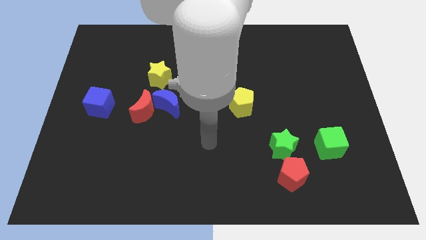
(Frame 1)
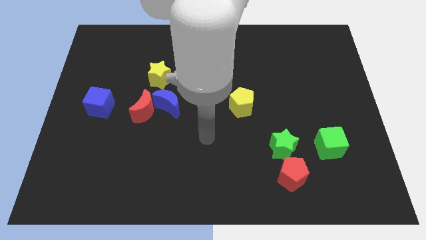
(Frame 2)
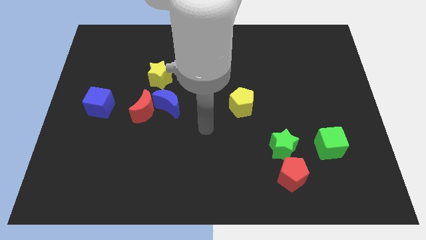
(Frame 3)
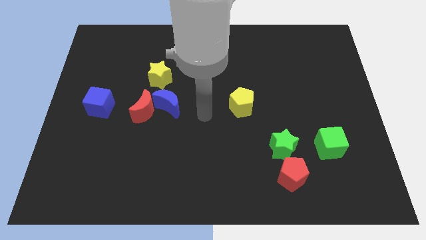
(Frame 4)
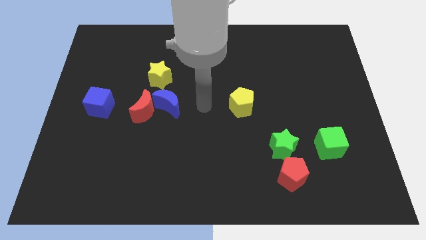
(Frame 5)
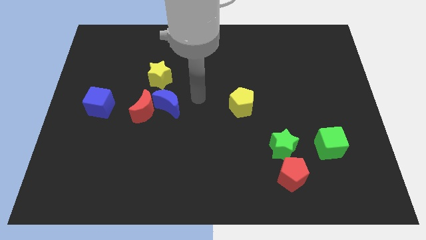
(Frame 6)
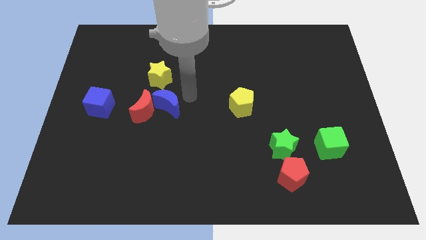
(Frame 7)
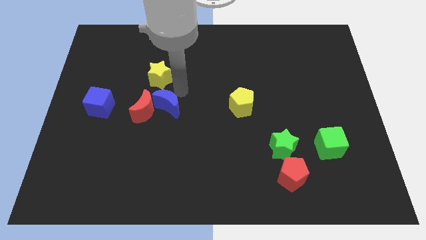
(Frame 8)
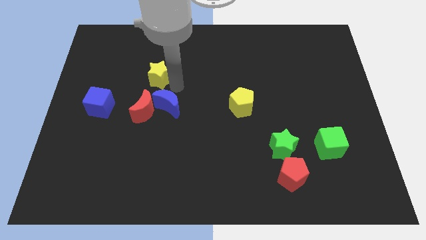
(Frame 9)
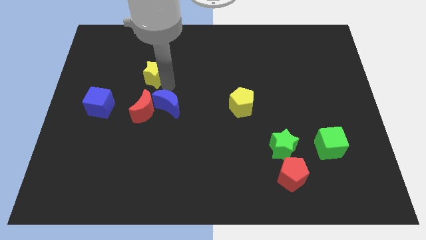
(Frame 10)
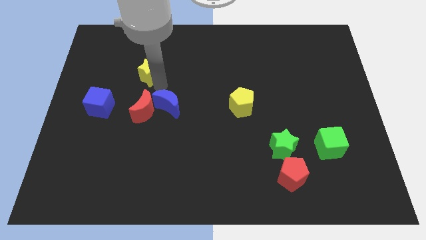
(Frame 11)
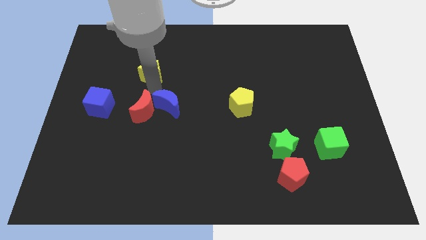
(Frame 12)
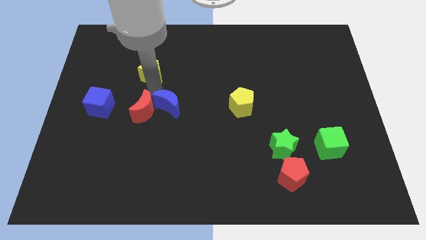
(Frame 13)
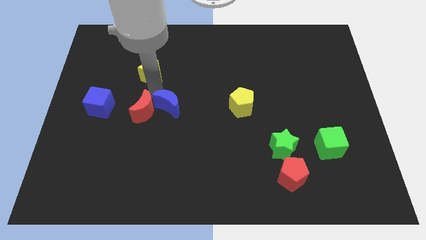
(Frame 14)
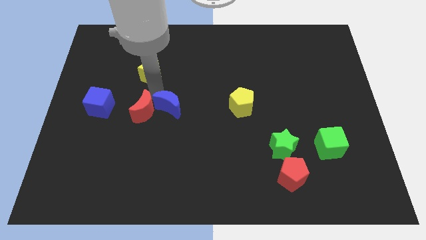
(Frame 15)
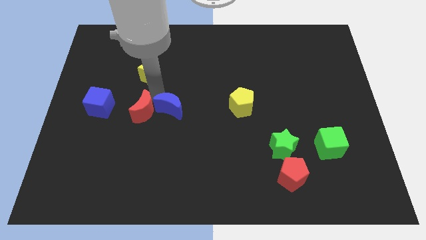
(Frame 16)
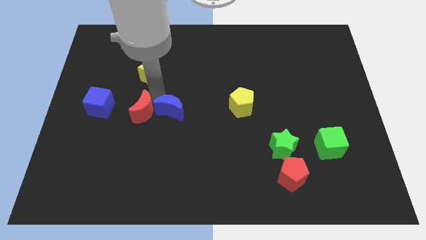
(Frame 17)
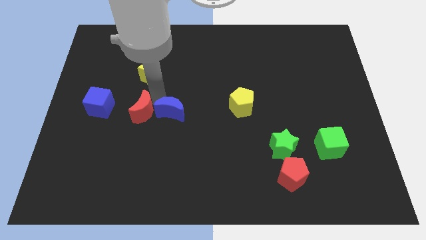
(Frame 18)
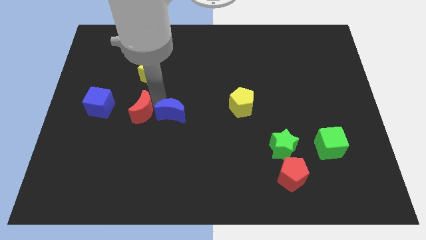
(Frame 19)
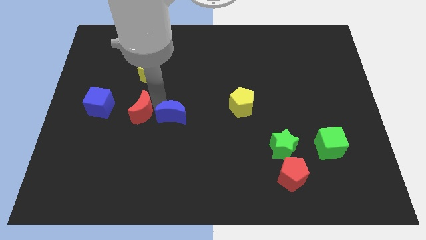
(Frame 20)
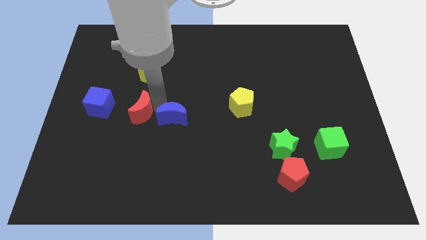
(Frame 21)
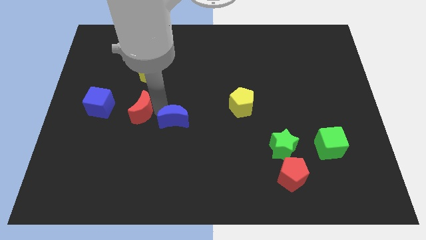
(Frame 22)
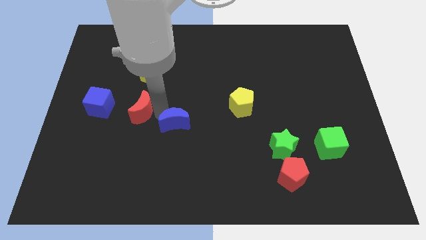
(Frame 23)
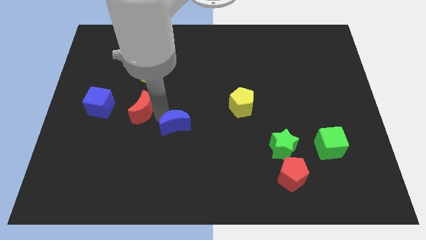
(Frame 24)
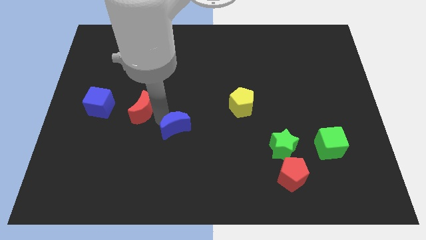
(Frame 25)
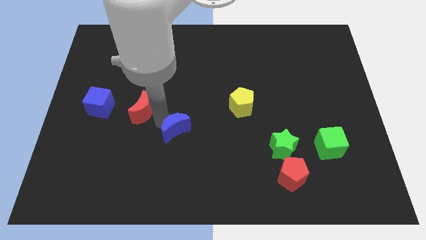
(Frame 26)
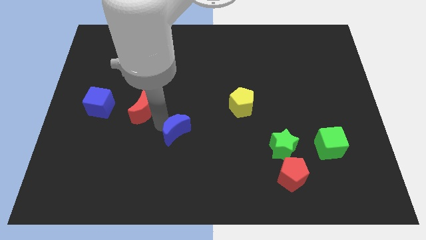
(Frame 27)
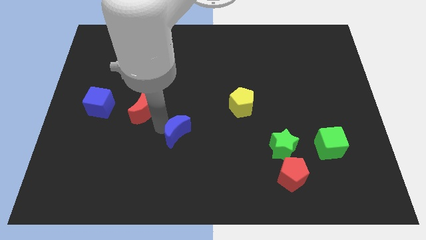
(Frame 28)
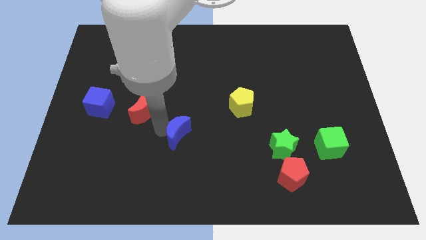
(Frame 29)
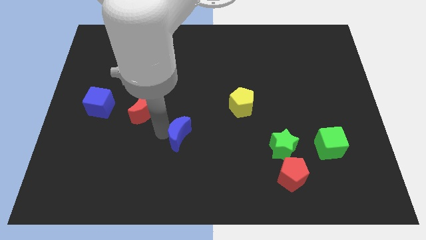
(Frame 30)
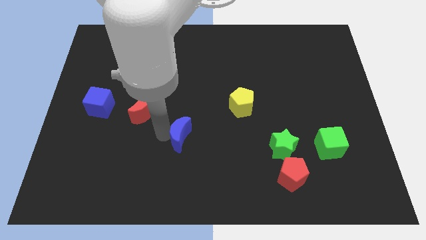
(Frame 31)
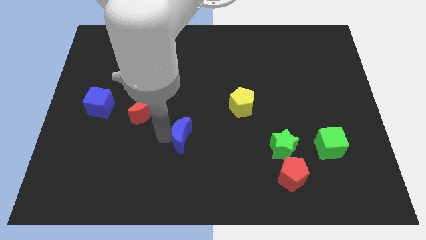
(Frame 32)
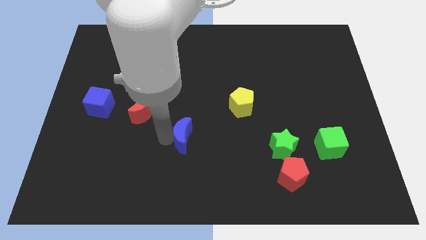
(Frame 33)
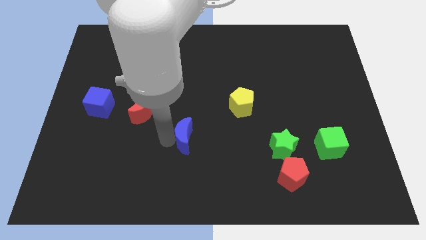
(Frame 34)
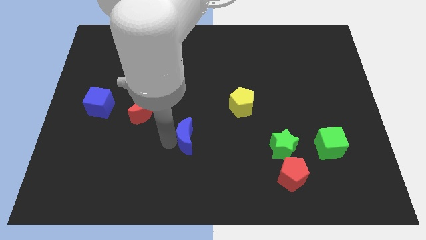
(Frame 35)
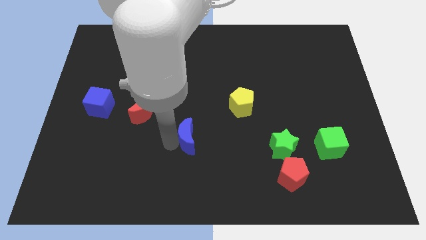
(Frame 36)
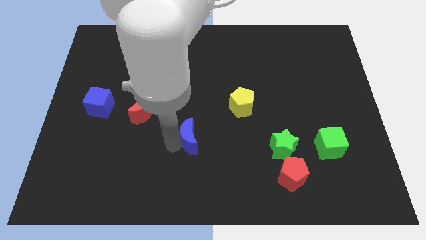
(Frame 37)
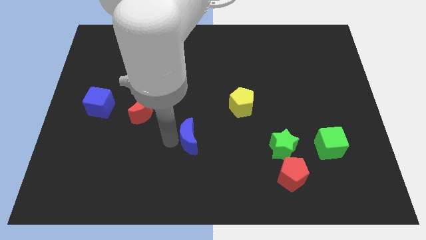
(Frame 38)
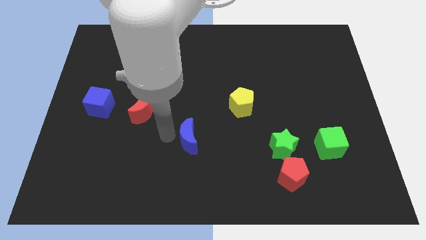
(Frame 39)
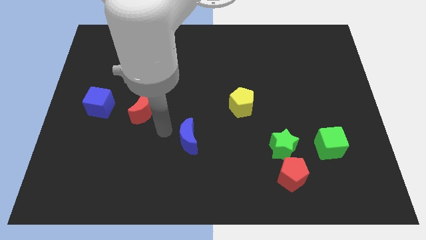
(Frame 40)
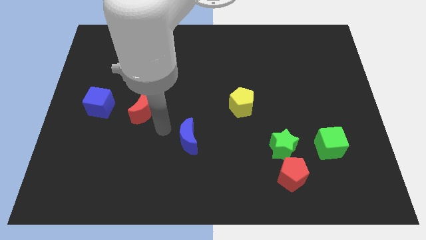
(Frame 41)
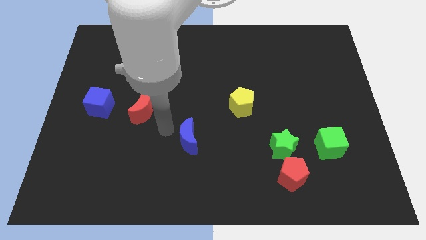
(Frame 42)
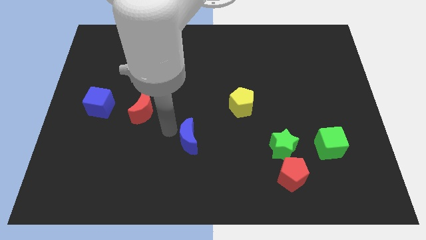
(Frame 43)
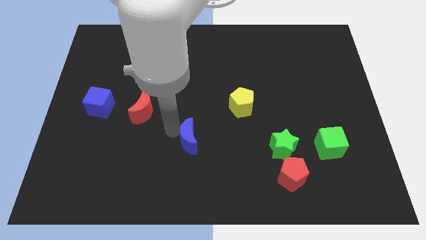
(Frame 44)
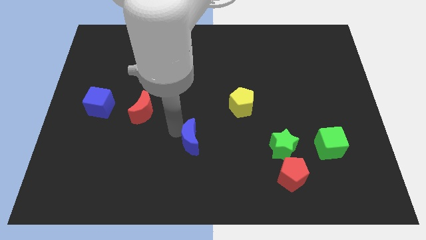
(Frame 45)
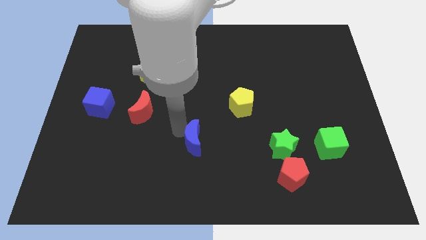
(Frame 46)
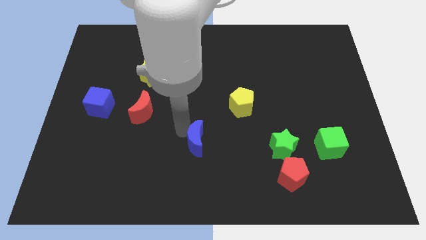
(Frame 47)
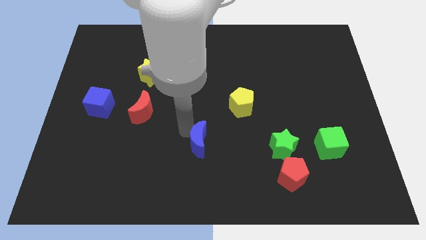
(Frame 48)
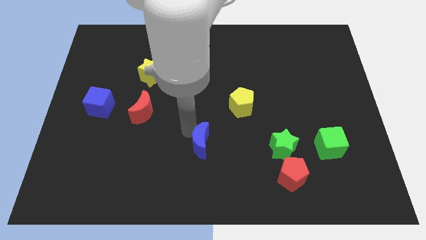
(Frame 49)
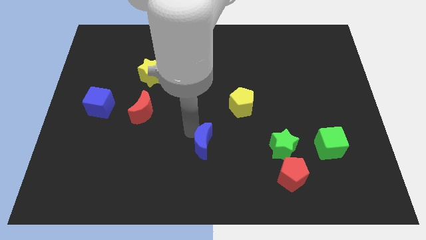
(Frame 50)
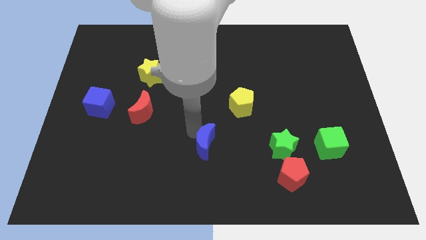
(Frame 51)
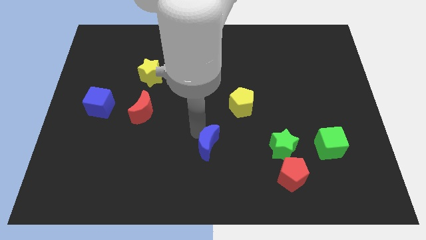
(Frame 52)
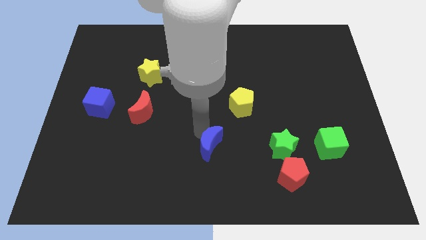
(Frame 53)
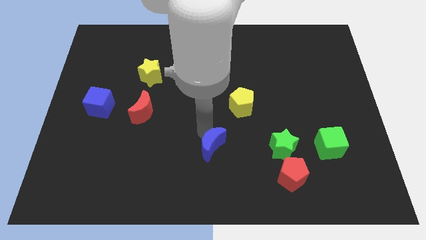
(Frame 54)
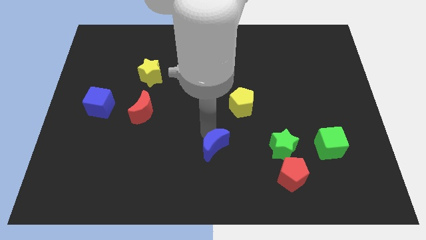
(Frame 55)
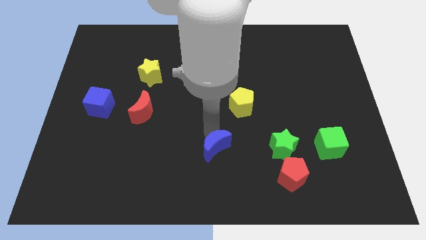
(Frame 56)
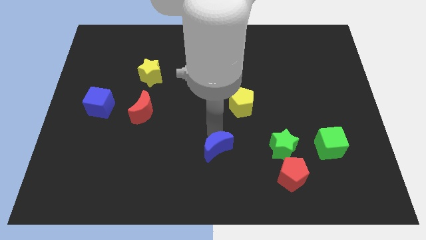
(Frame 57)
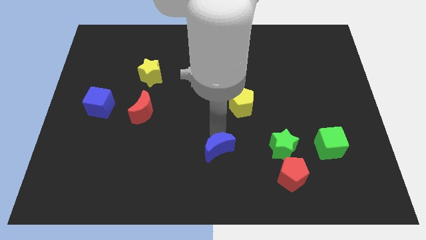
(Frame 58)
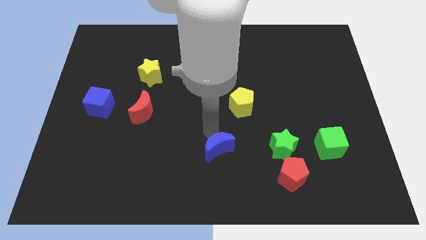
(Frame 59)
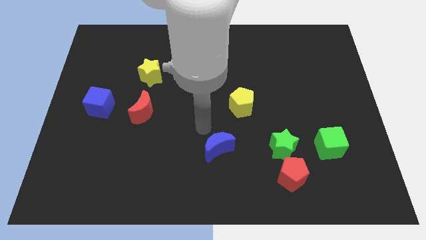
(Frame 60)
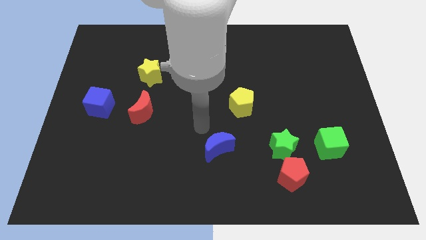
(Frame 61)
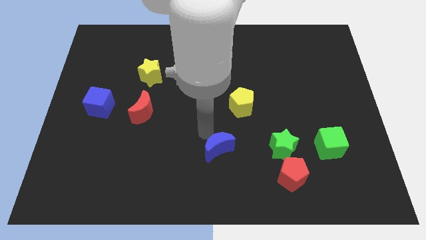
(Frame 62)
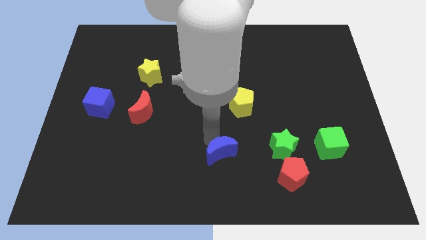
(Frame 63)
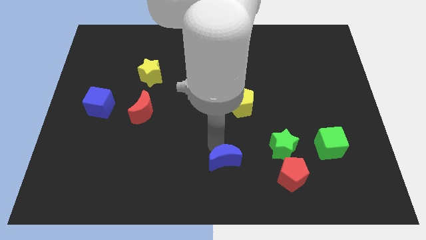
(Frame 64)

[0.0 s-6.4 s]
put the blue moon left of the red pentagon

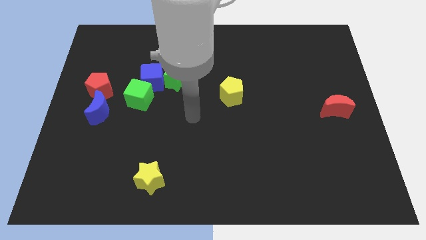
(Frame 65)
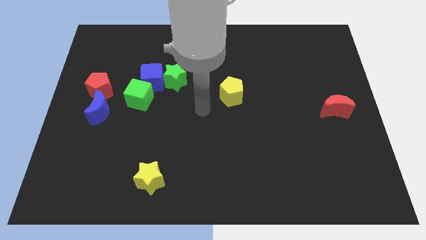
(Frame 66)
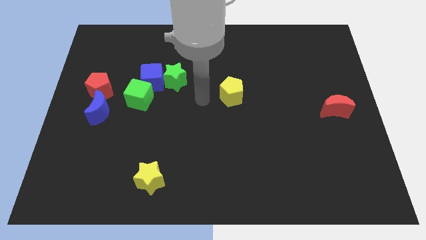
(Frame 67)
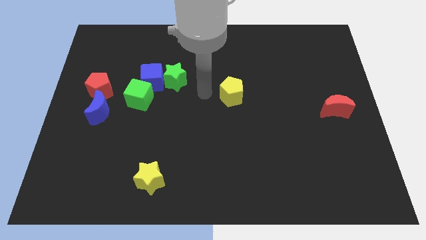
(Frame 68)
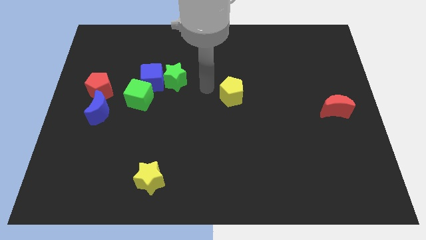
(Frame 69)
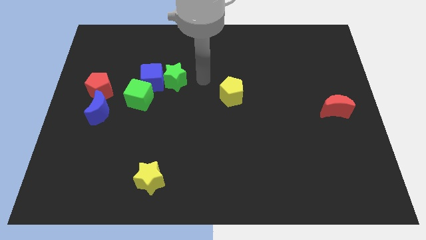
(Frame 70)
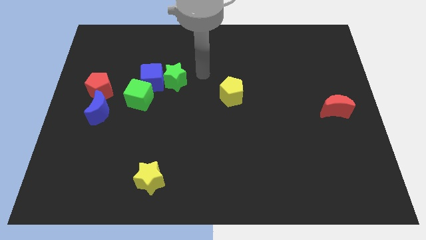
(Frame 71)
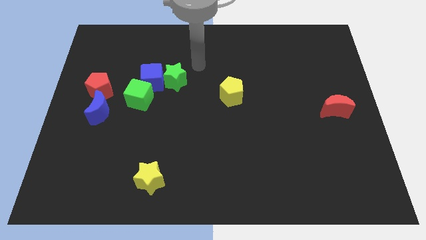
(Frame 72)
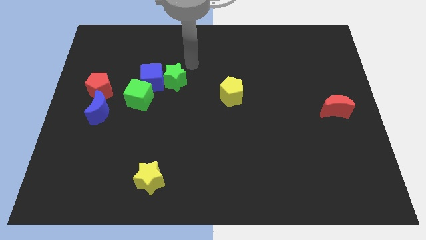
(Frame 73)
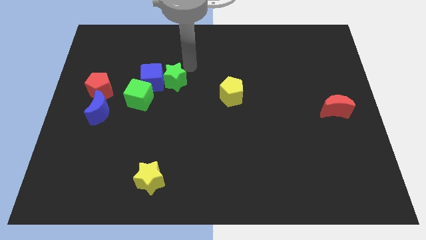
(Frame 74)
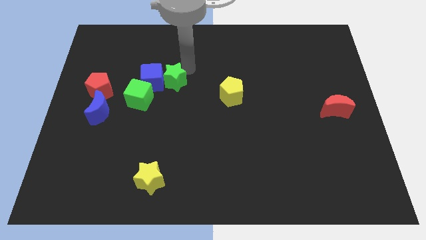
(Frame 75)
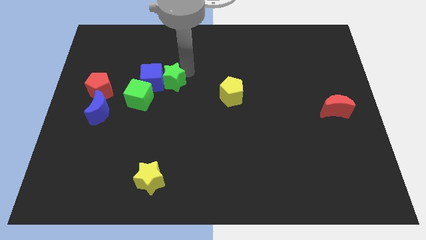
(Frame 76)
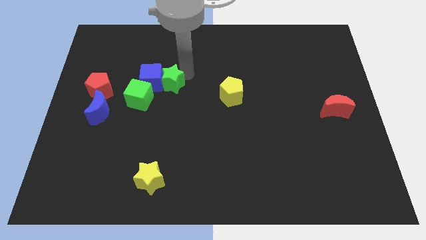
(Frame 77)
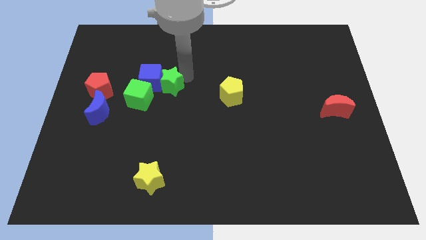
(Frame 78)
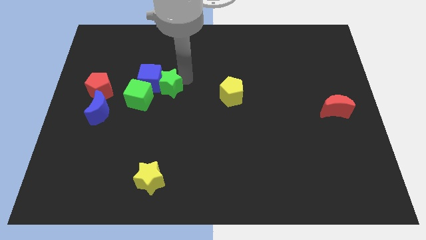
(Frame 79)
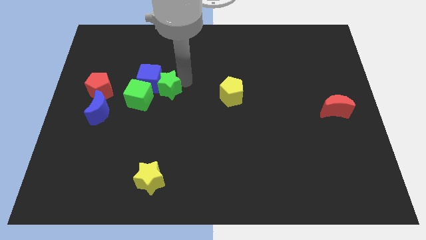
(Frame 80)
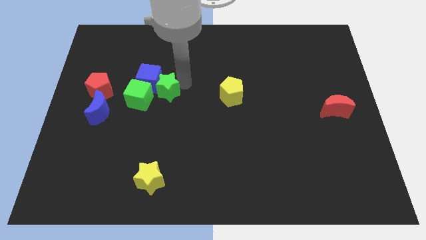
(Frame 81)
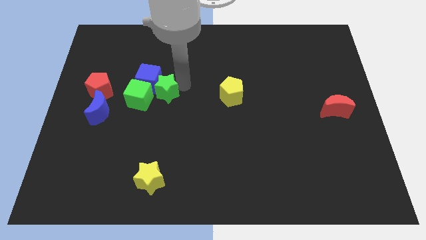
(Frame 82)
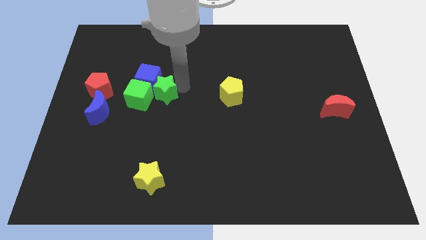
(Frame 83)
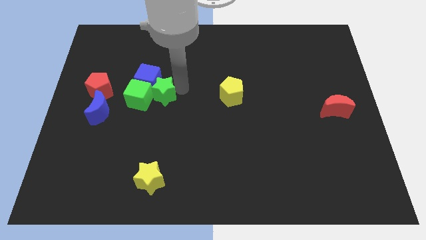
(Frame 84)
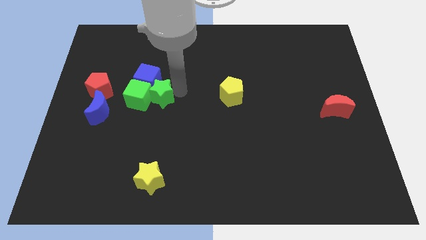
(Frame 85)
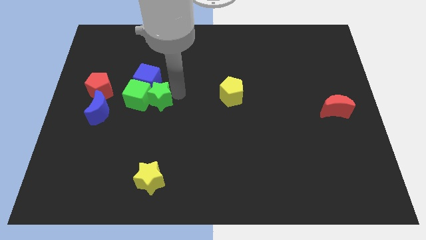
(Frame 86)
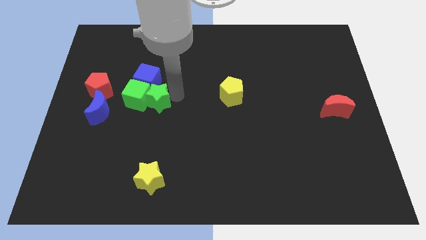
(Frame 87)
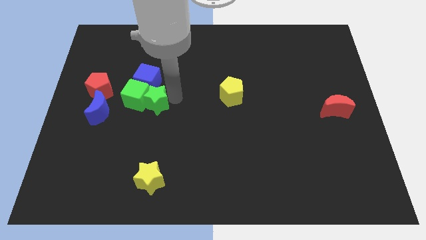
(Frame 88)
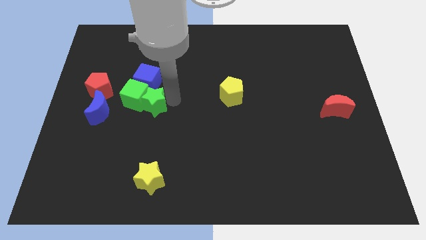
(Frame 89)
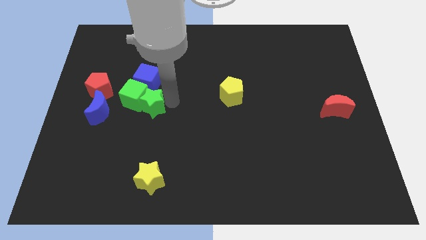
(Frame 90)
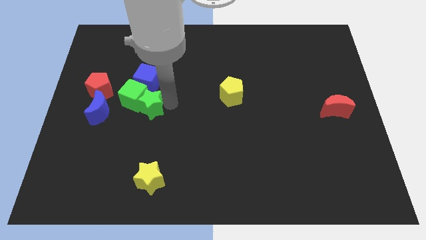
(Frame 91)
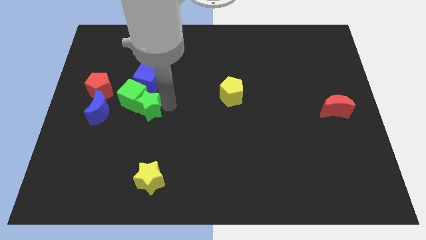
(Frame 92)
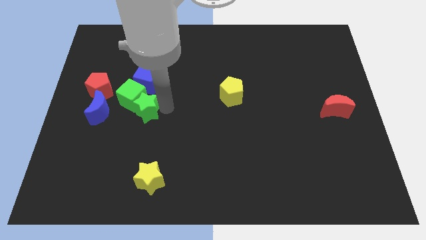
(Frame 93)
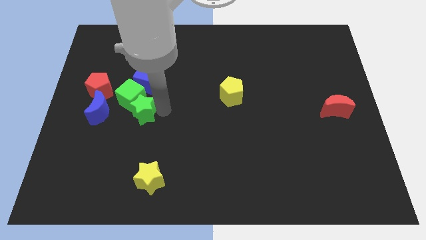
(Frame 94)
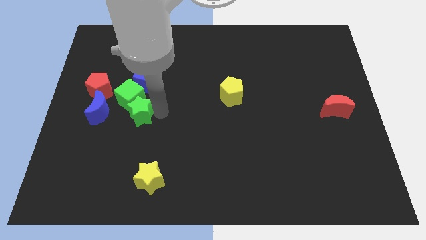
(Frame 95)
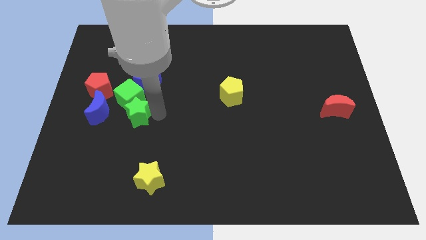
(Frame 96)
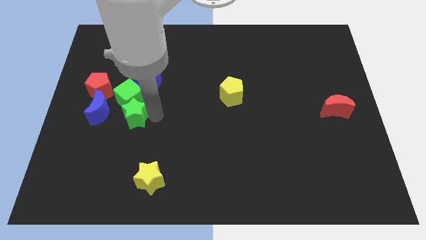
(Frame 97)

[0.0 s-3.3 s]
push the green star diagonally down and to the right of the blue moon
